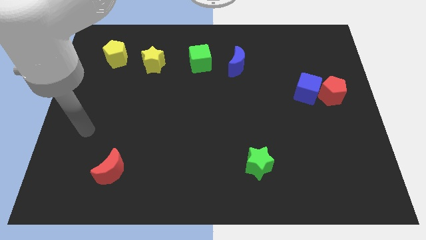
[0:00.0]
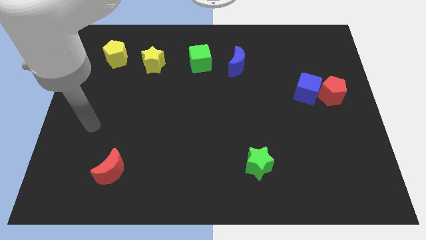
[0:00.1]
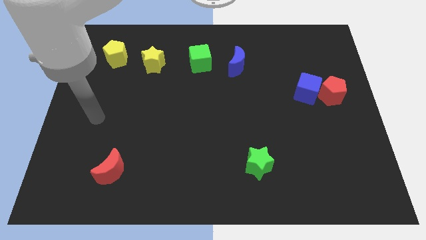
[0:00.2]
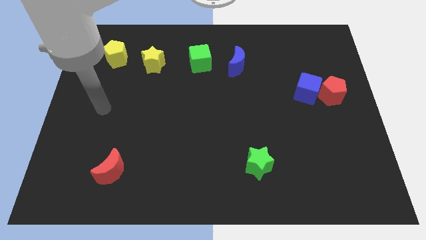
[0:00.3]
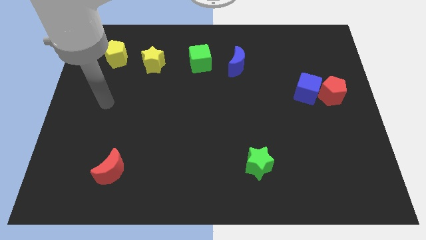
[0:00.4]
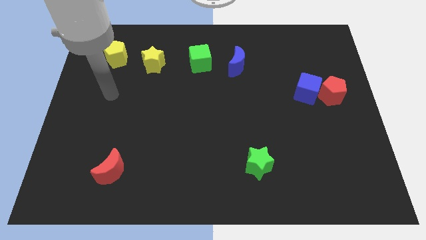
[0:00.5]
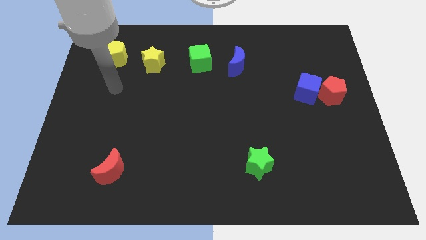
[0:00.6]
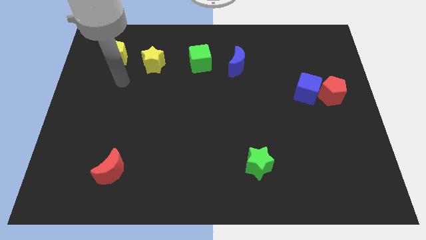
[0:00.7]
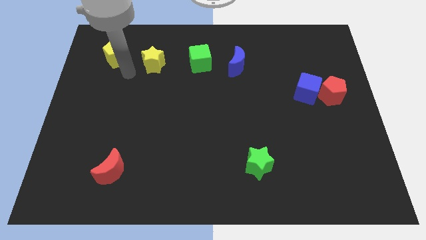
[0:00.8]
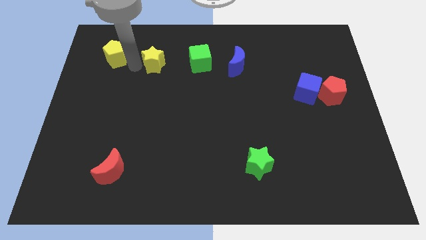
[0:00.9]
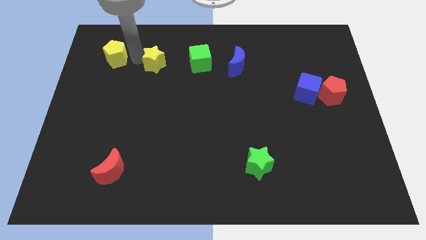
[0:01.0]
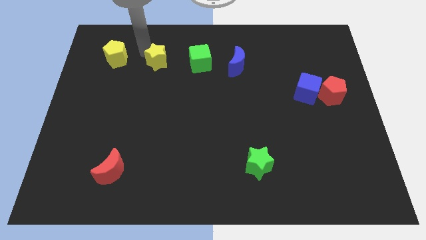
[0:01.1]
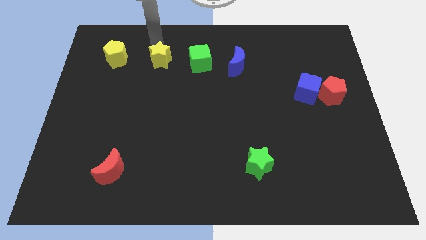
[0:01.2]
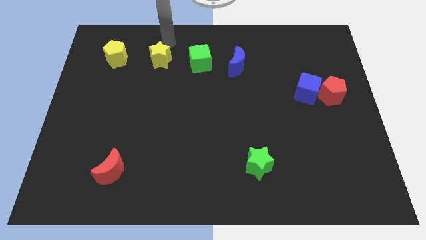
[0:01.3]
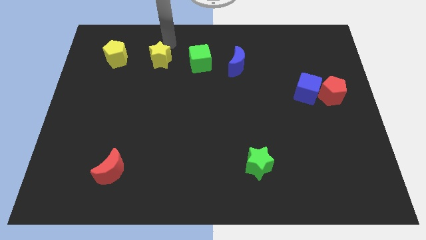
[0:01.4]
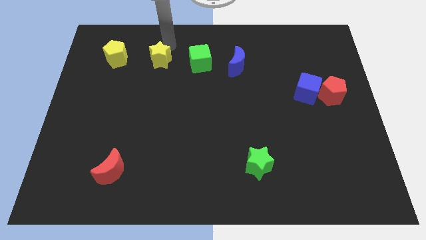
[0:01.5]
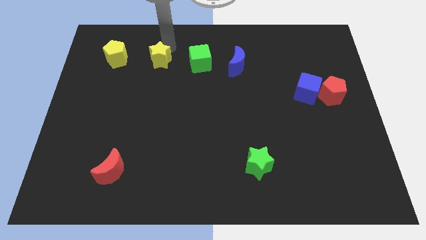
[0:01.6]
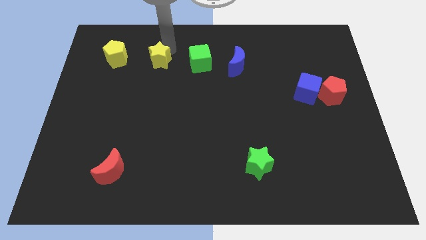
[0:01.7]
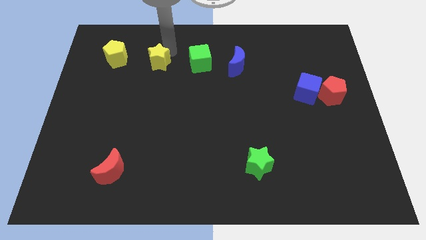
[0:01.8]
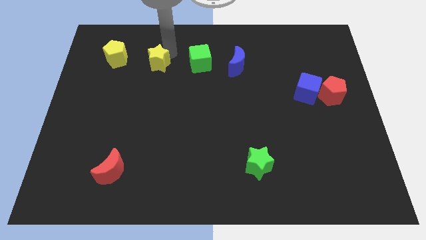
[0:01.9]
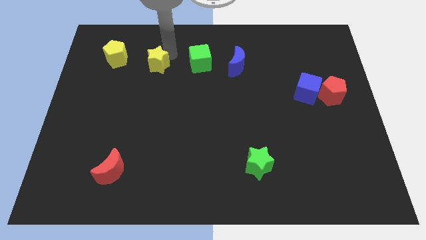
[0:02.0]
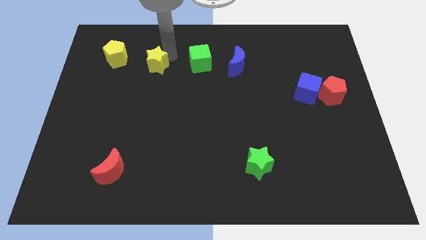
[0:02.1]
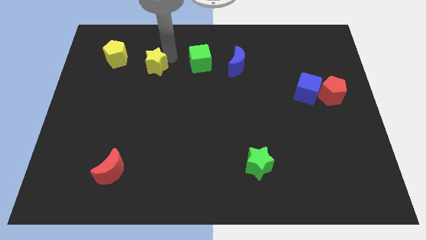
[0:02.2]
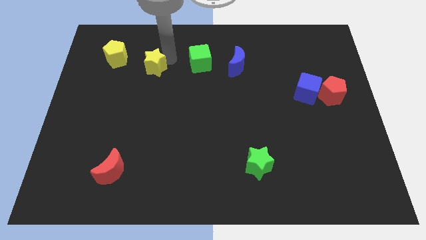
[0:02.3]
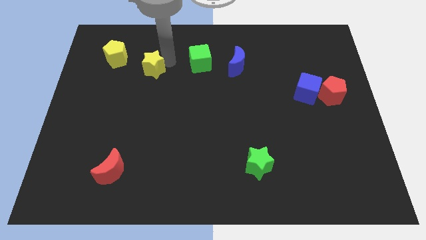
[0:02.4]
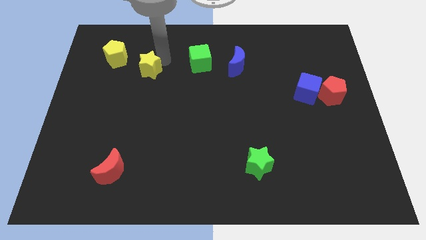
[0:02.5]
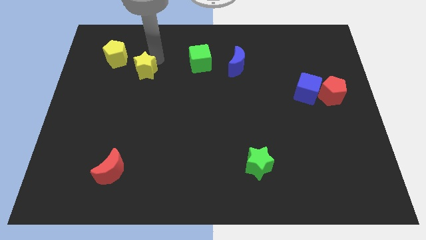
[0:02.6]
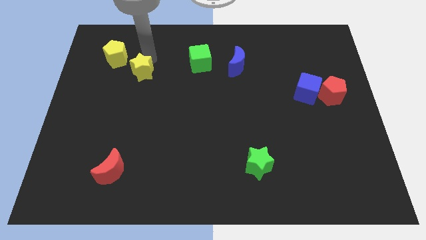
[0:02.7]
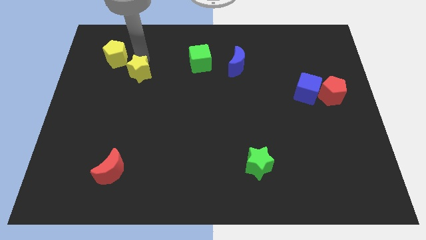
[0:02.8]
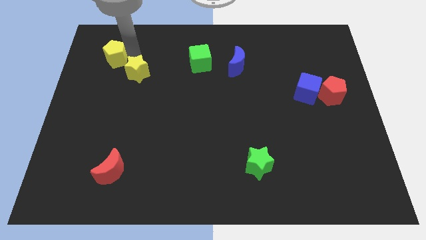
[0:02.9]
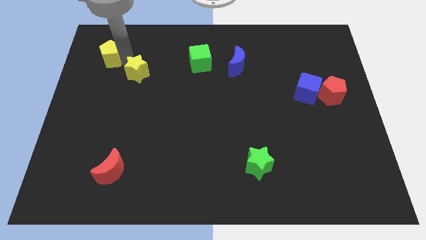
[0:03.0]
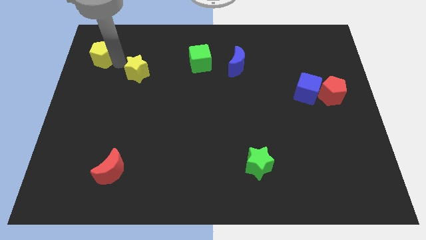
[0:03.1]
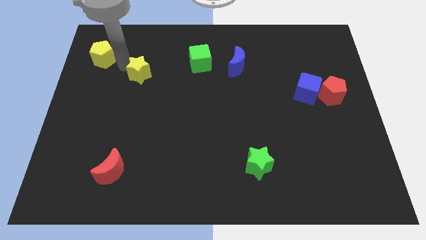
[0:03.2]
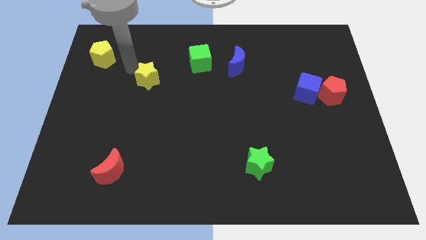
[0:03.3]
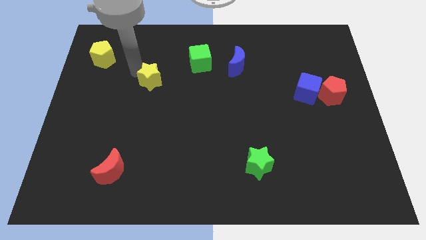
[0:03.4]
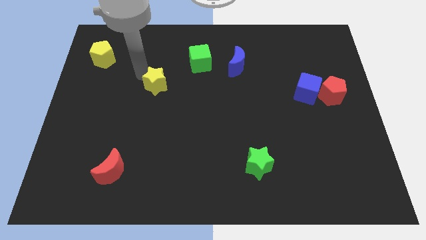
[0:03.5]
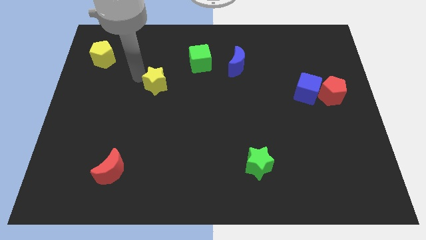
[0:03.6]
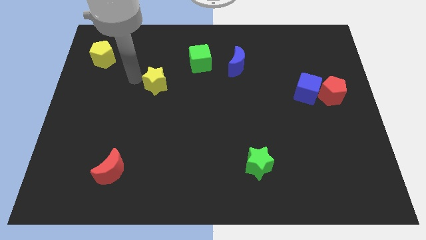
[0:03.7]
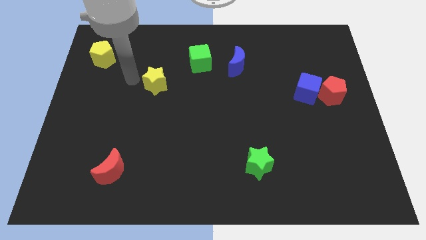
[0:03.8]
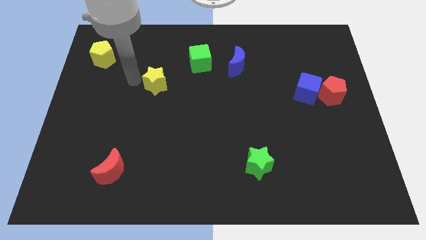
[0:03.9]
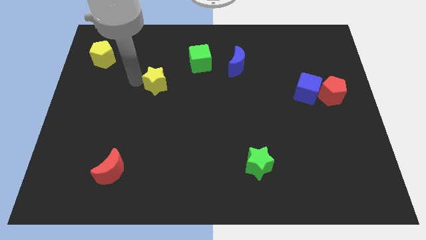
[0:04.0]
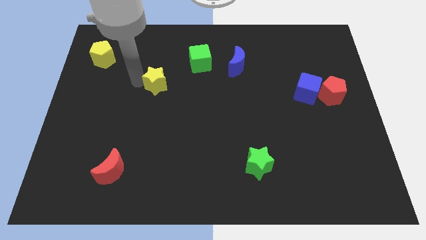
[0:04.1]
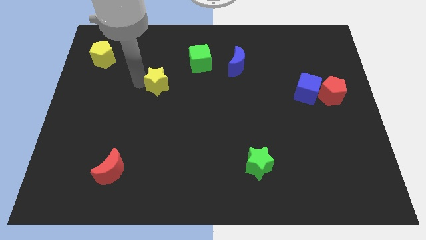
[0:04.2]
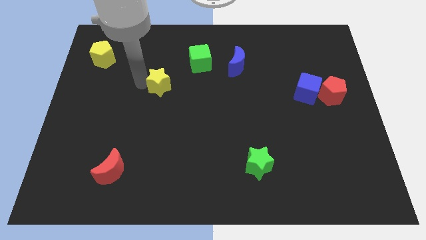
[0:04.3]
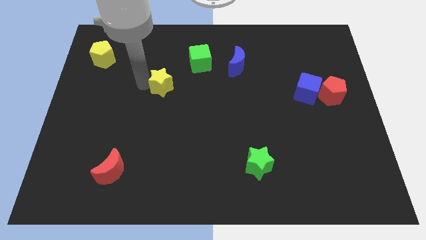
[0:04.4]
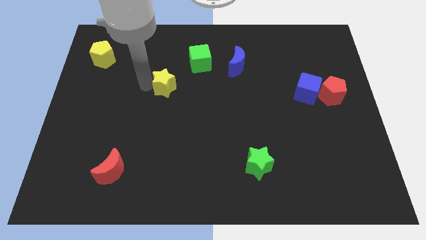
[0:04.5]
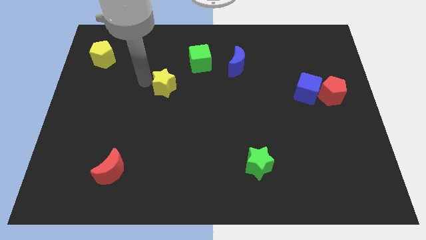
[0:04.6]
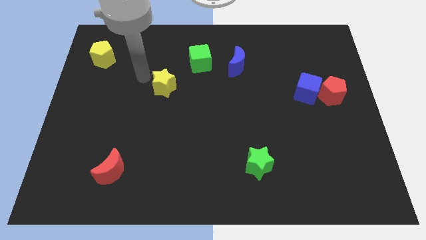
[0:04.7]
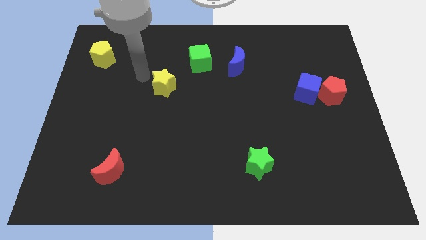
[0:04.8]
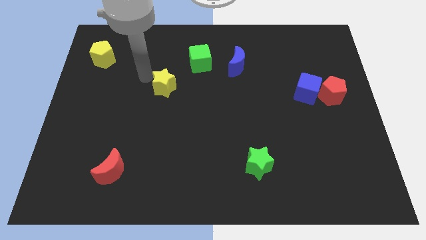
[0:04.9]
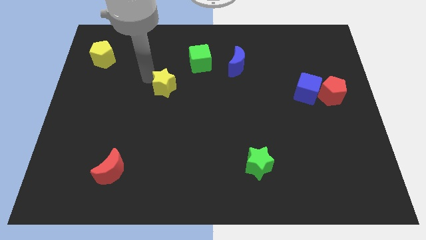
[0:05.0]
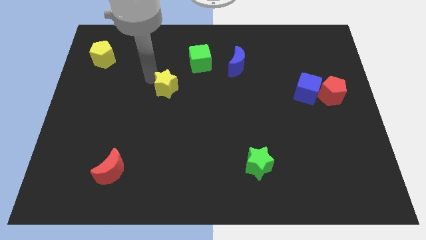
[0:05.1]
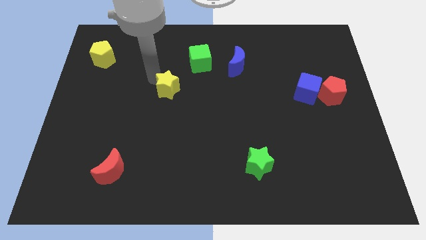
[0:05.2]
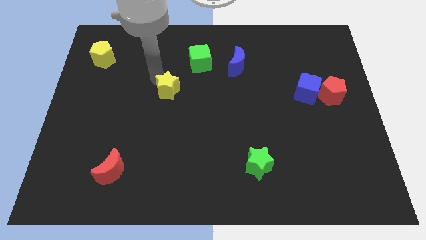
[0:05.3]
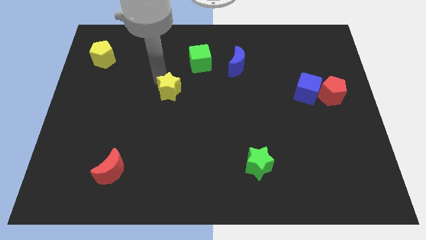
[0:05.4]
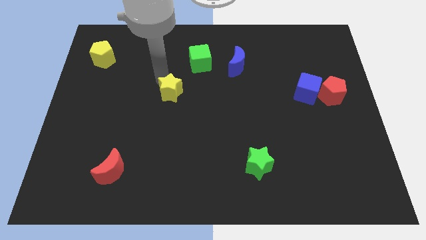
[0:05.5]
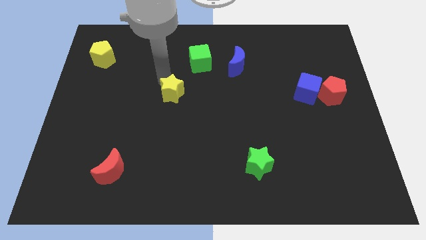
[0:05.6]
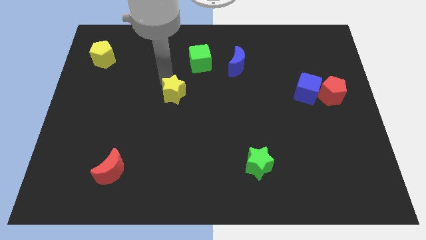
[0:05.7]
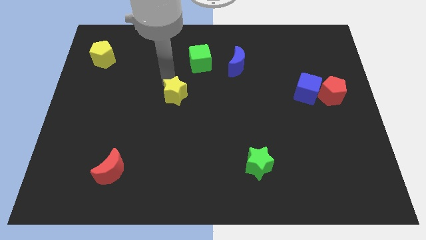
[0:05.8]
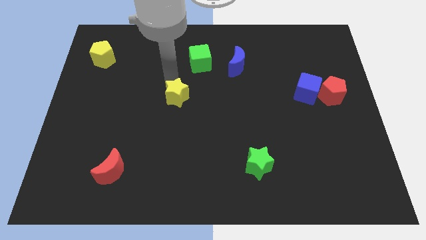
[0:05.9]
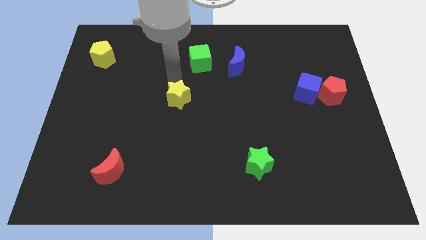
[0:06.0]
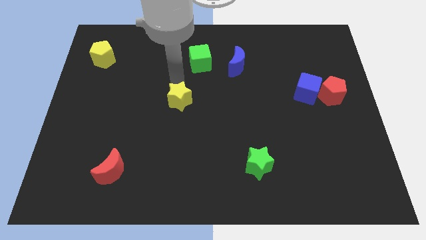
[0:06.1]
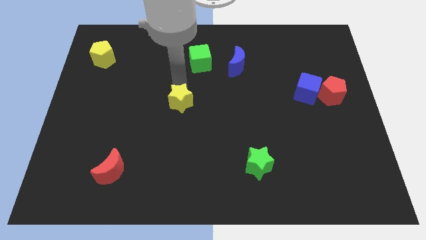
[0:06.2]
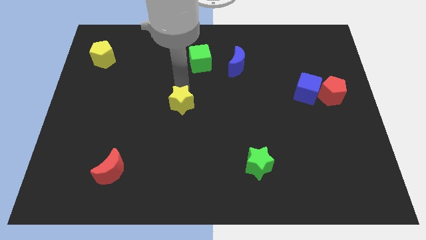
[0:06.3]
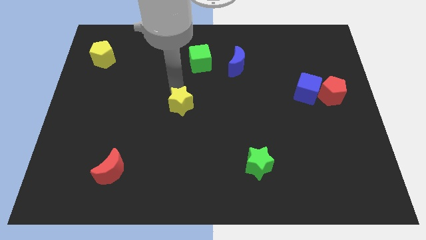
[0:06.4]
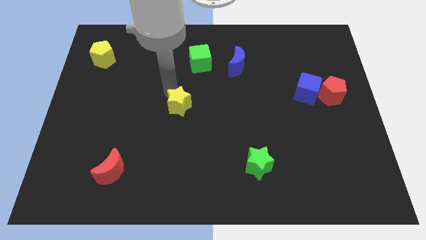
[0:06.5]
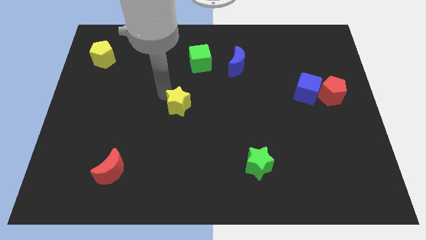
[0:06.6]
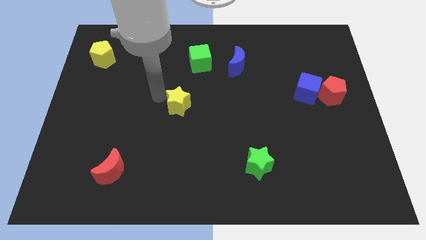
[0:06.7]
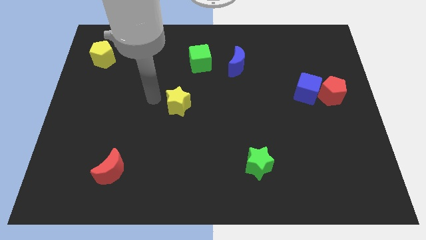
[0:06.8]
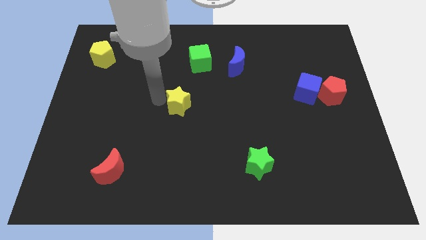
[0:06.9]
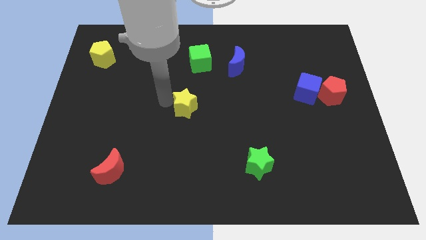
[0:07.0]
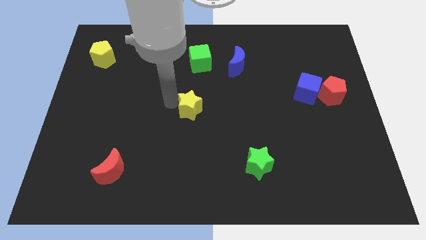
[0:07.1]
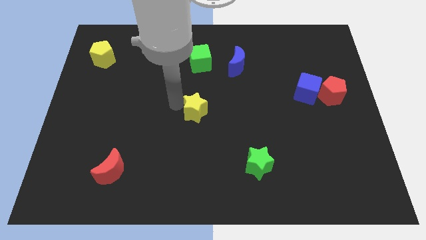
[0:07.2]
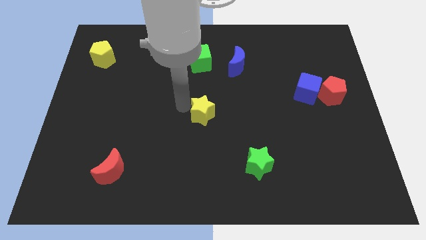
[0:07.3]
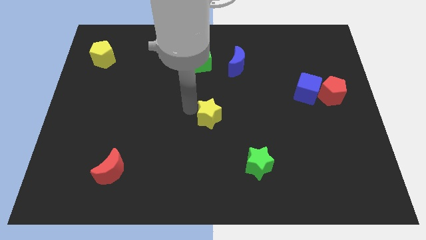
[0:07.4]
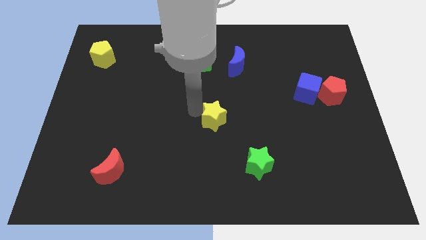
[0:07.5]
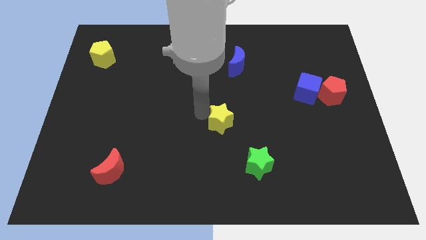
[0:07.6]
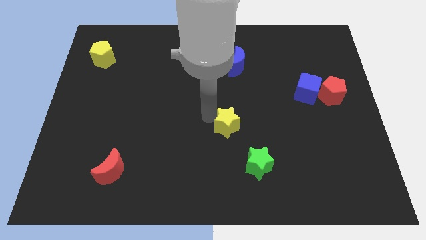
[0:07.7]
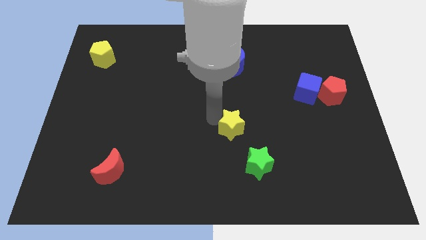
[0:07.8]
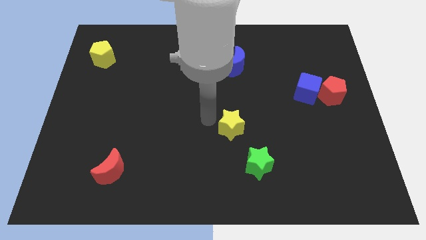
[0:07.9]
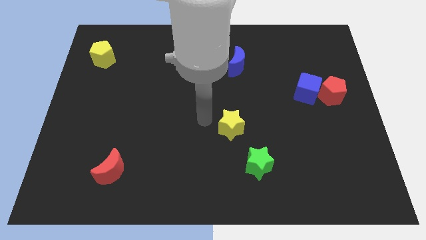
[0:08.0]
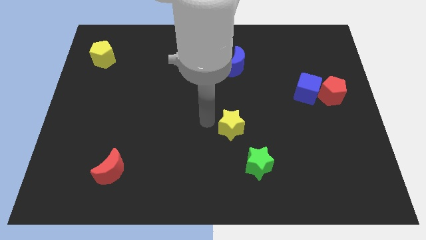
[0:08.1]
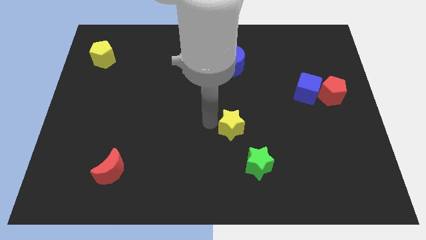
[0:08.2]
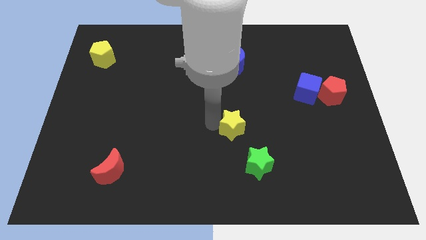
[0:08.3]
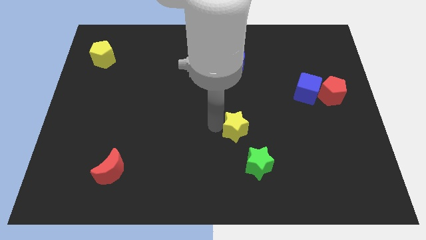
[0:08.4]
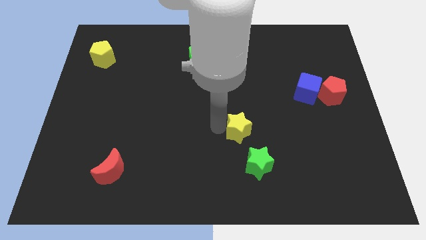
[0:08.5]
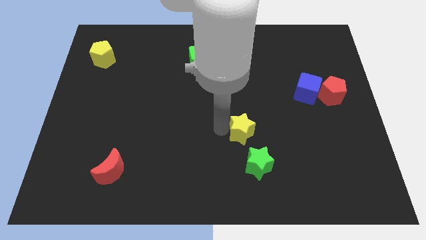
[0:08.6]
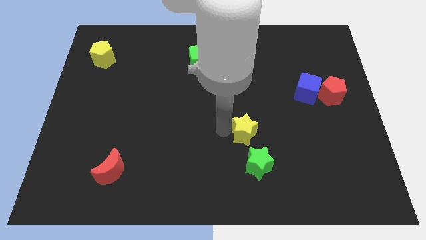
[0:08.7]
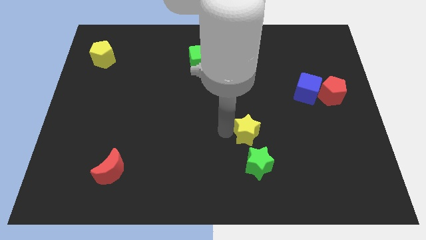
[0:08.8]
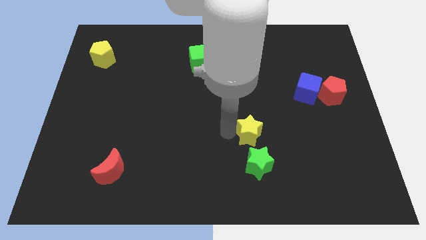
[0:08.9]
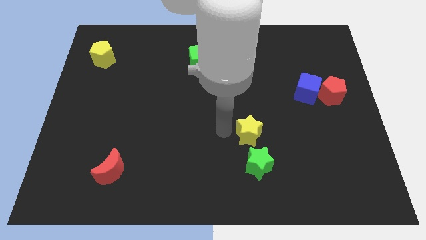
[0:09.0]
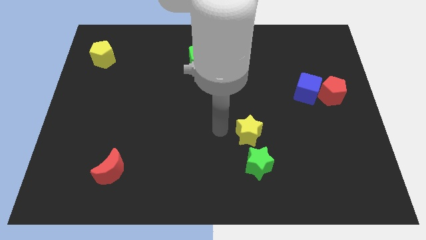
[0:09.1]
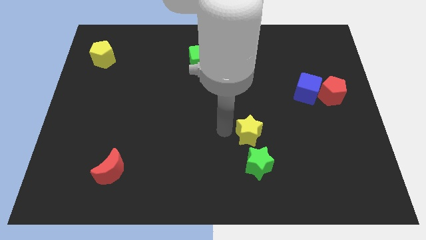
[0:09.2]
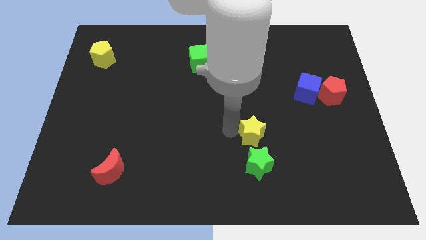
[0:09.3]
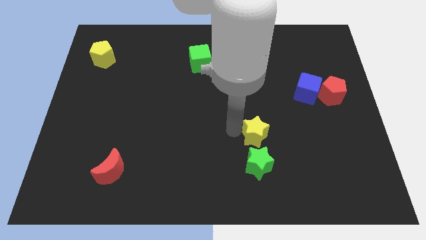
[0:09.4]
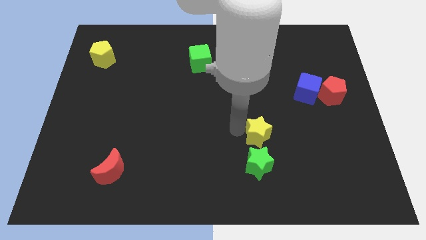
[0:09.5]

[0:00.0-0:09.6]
move the yellow star to the top right of the green star
